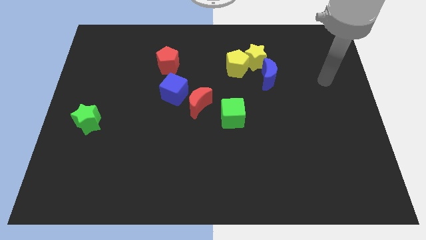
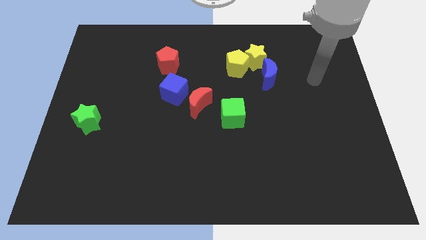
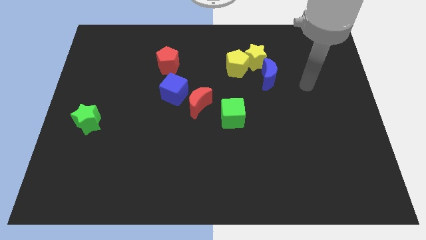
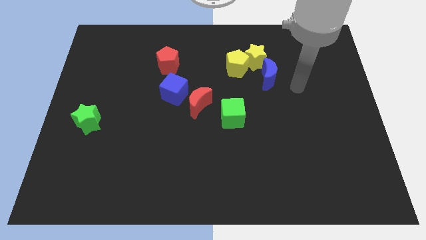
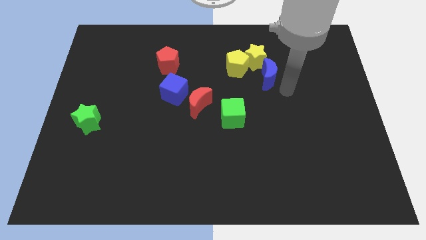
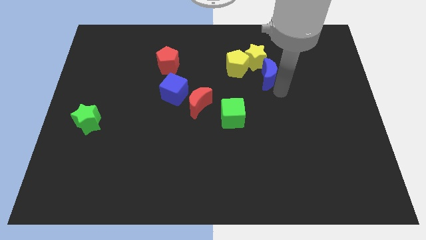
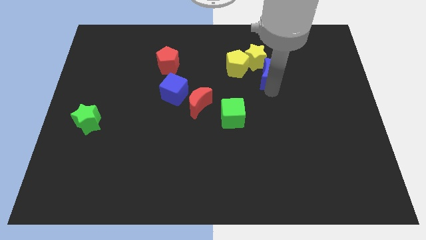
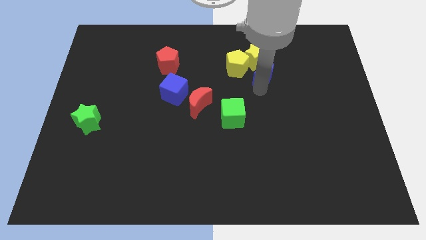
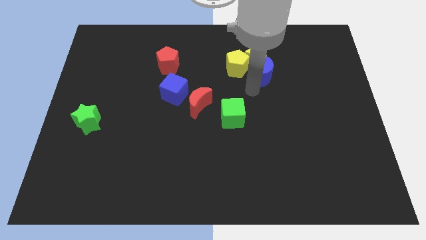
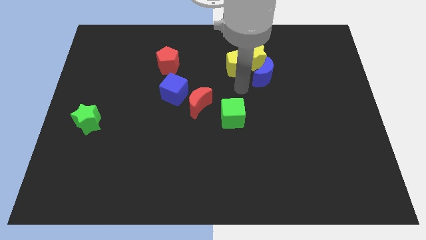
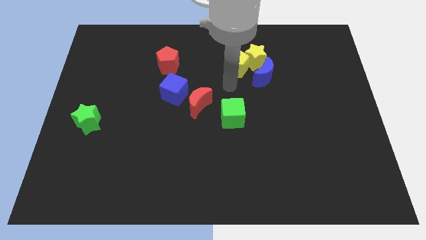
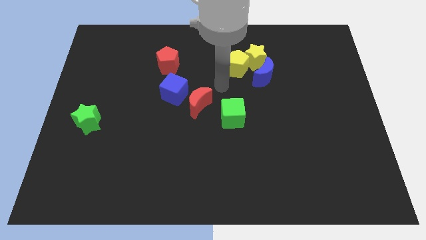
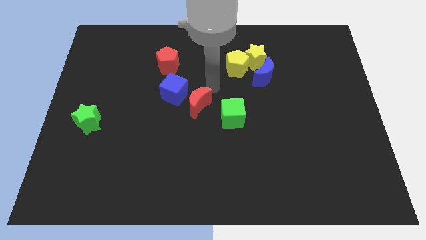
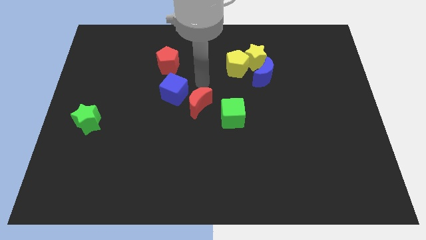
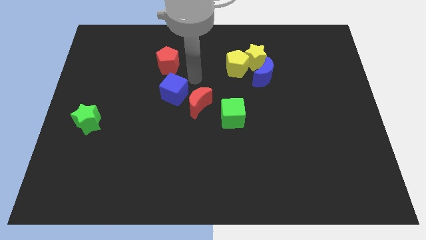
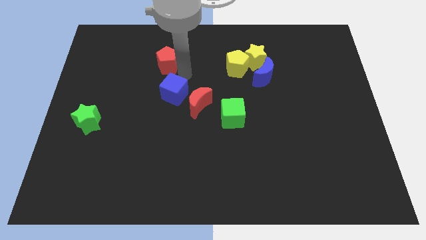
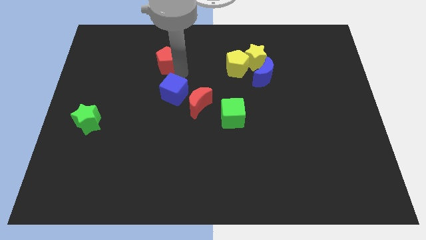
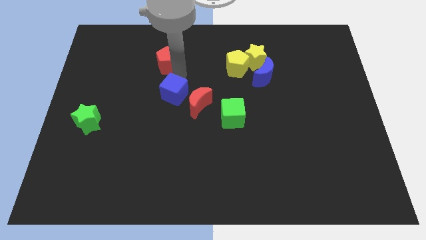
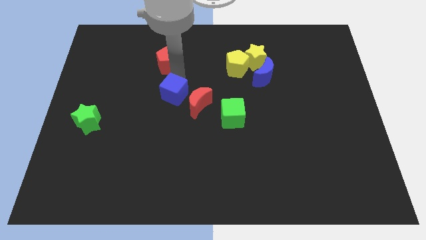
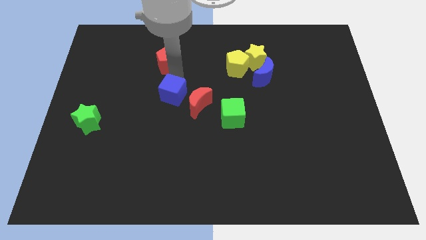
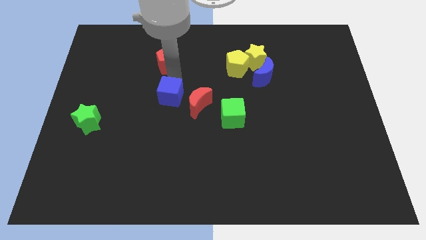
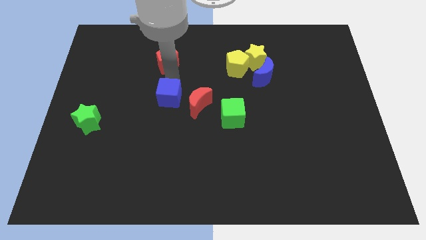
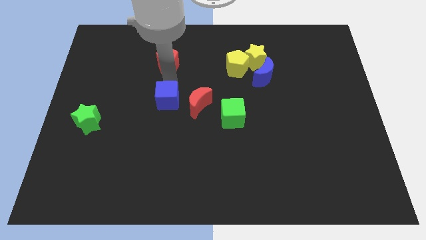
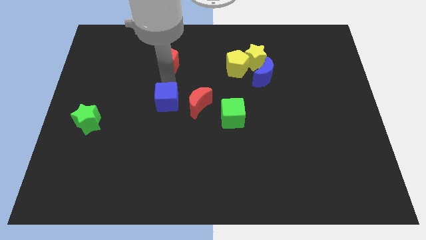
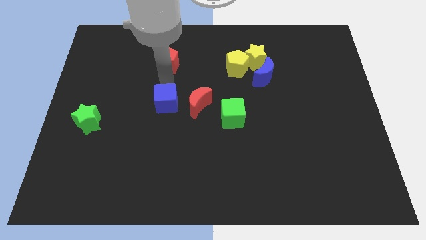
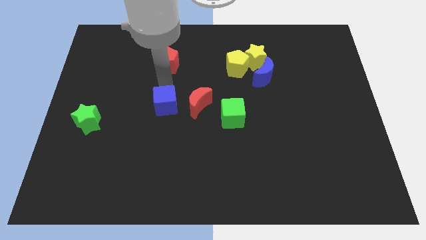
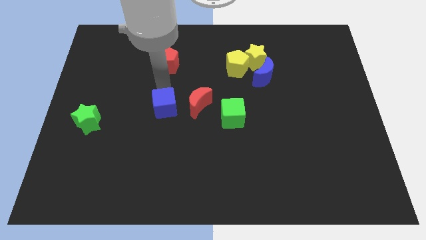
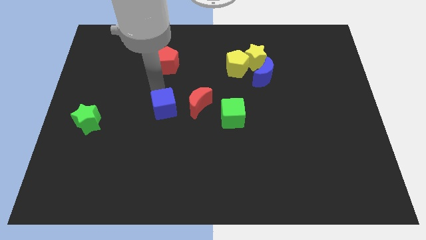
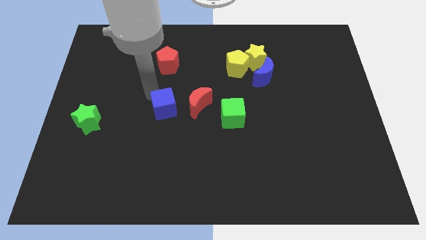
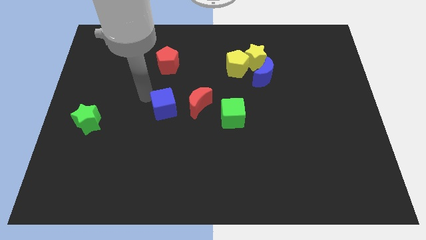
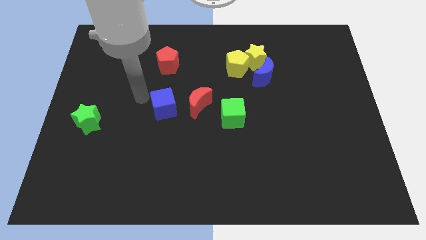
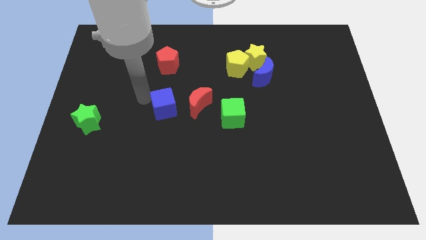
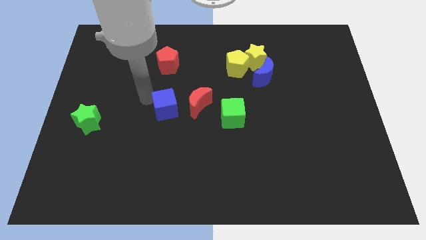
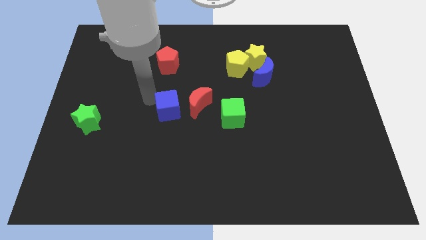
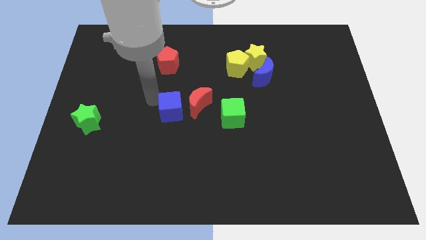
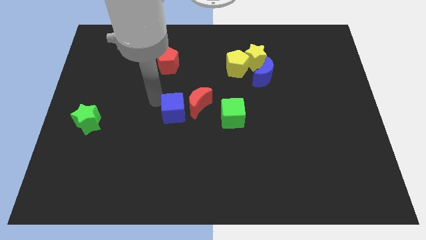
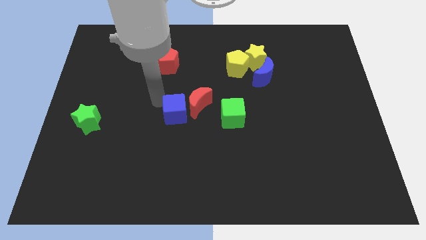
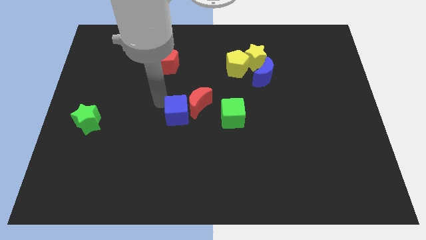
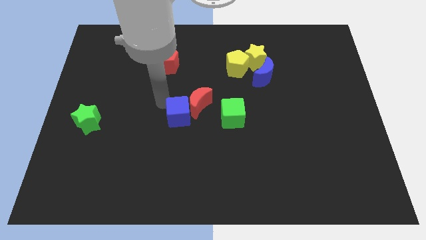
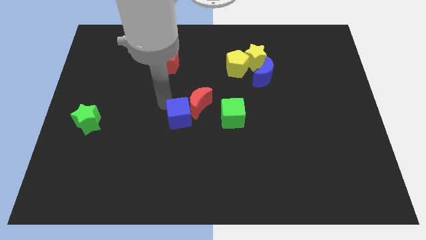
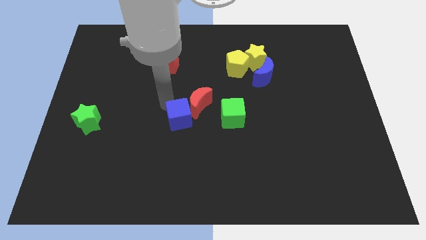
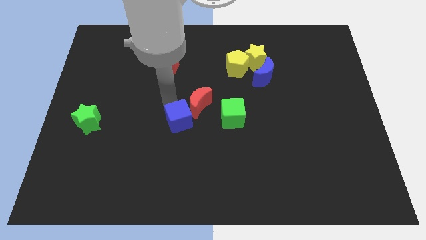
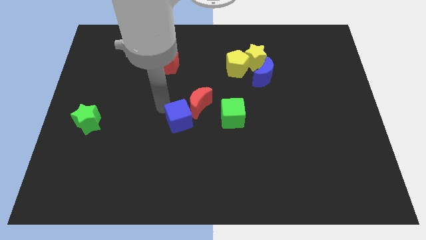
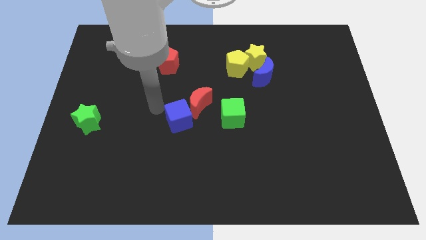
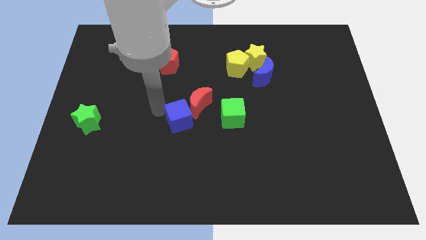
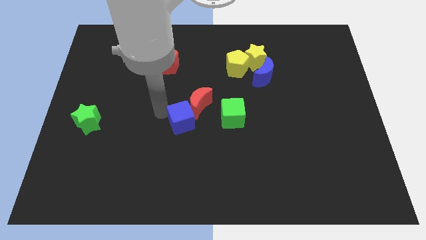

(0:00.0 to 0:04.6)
slightly push the blue cube diagonally downwards and right

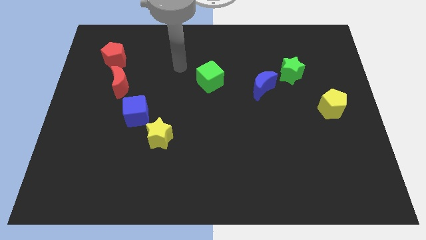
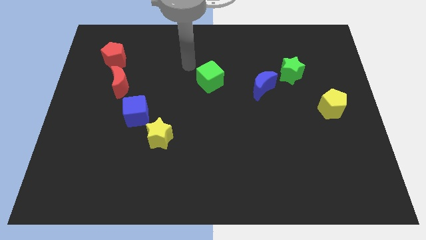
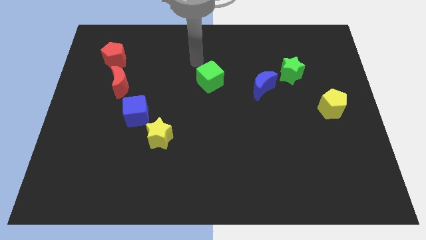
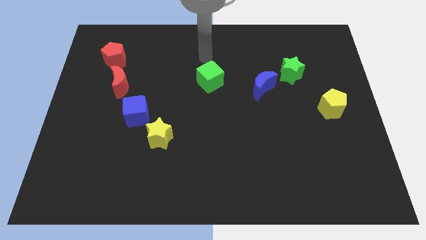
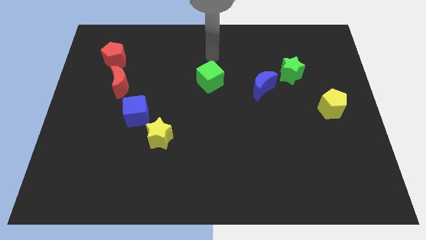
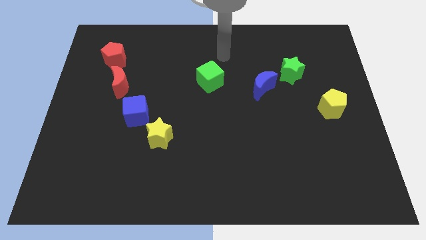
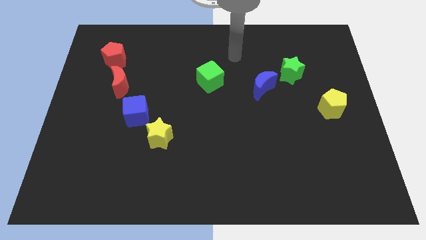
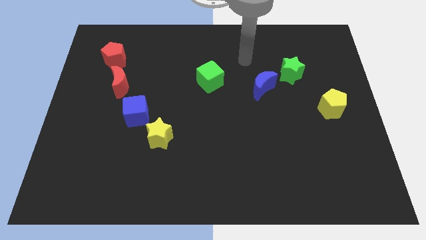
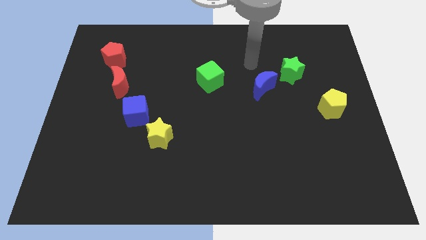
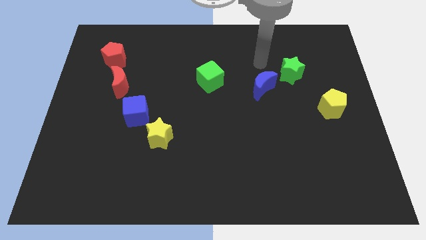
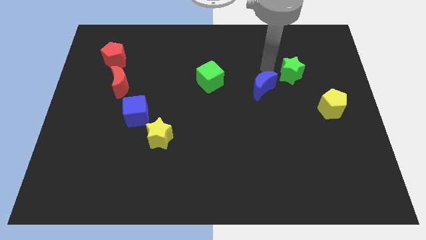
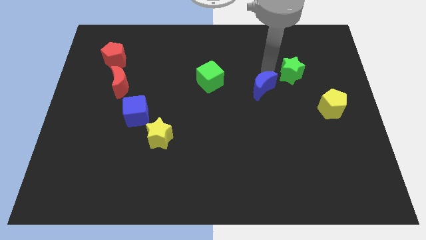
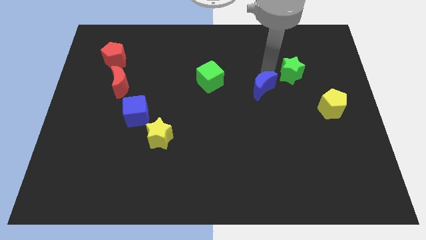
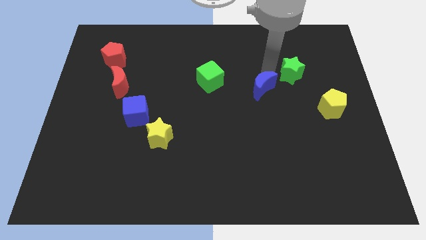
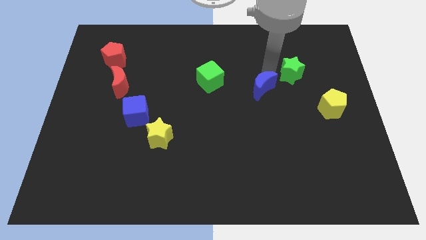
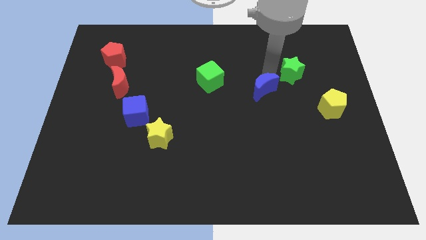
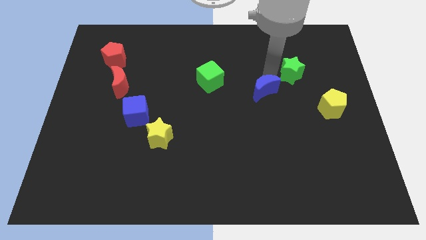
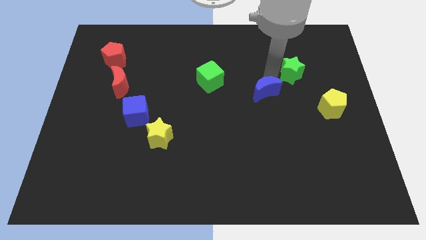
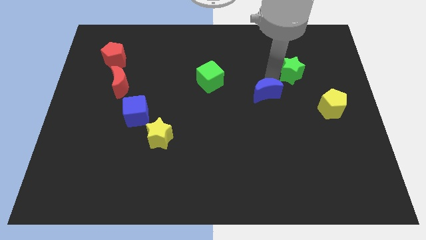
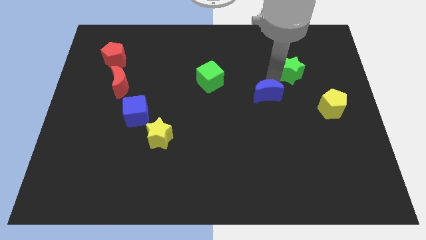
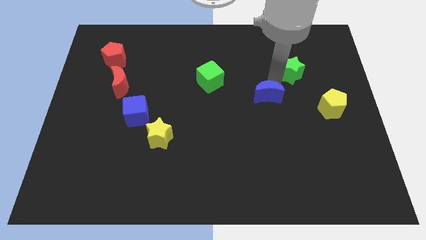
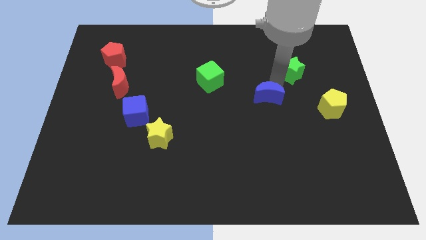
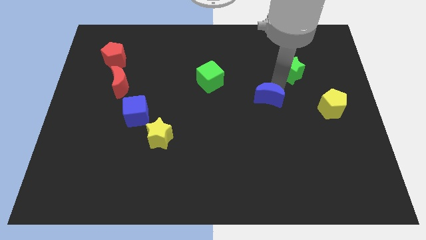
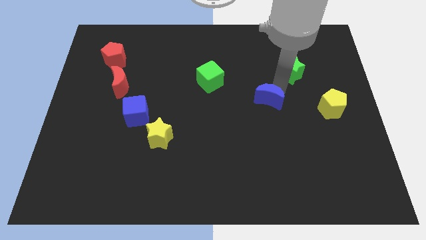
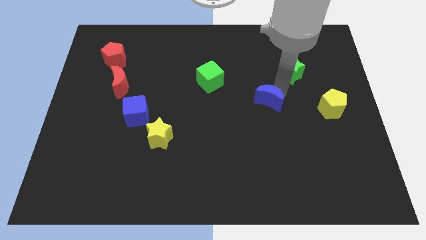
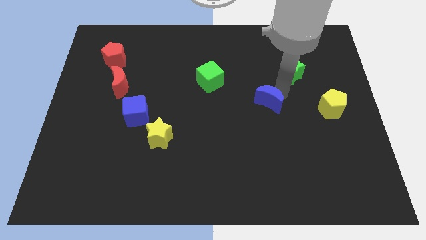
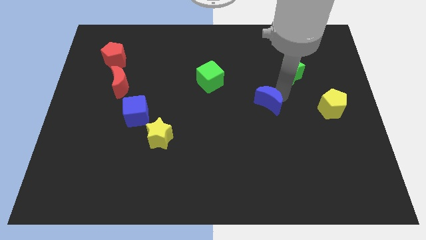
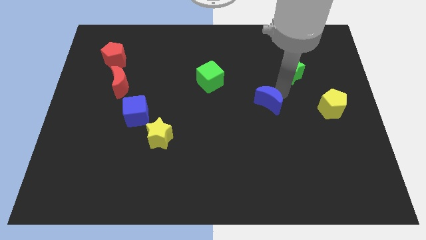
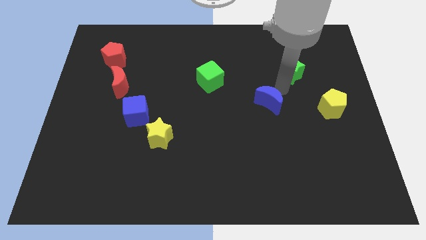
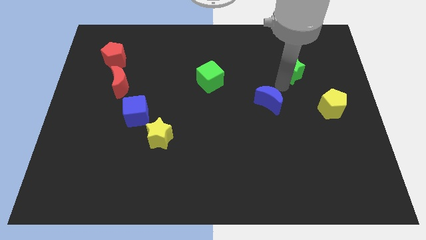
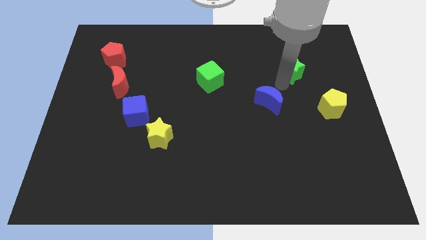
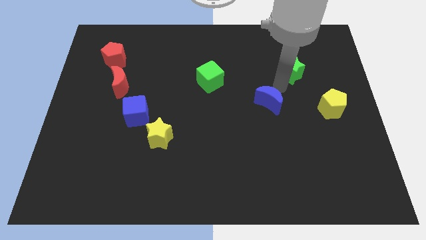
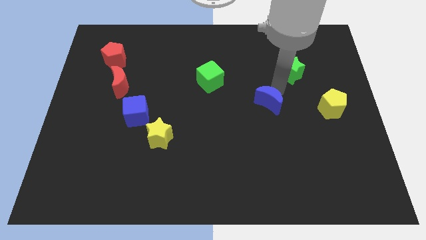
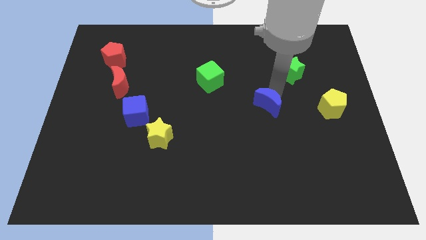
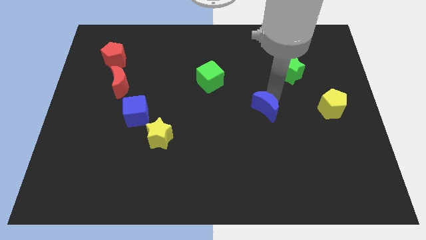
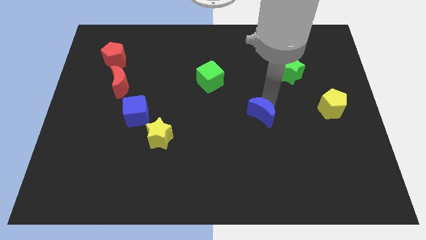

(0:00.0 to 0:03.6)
push the blue moon a little downwards
